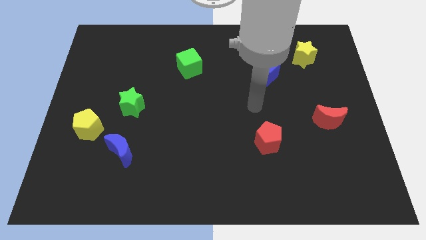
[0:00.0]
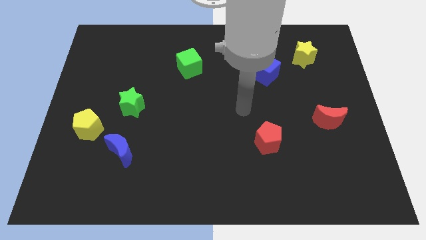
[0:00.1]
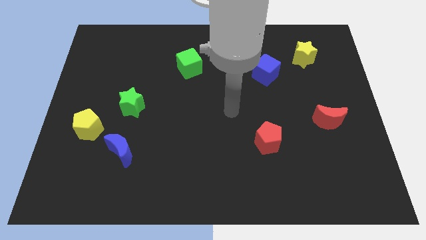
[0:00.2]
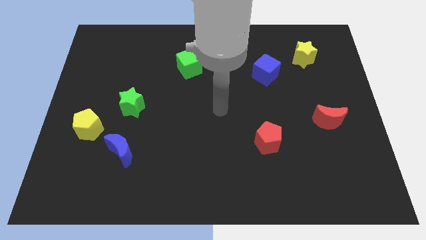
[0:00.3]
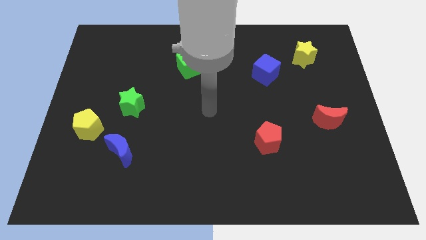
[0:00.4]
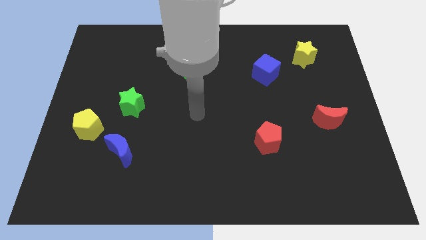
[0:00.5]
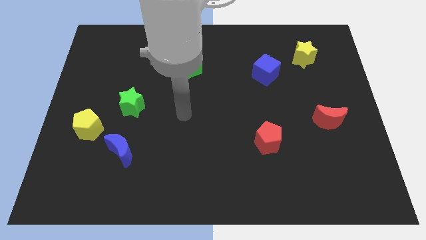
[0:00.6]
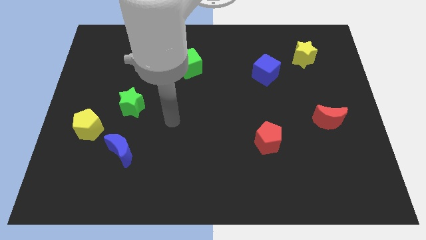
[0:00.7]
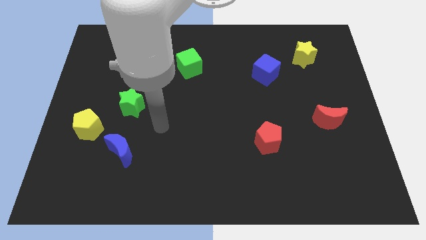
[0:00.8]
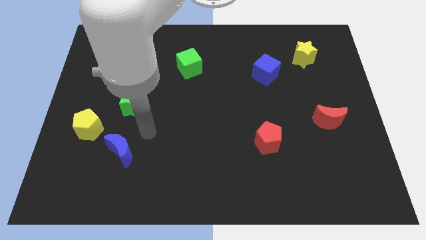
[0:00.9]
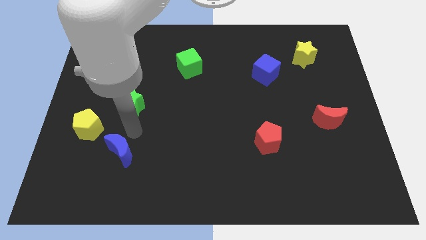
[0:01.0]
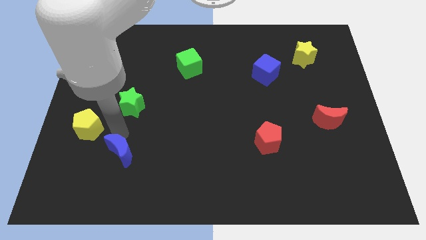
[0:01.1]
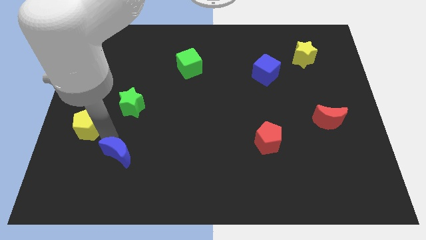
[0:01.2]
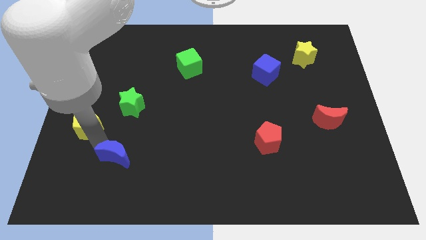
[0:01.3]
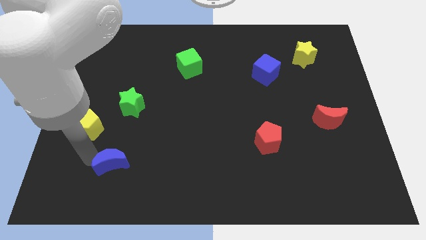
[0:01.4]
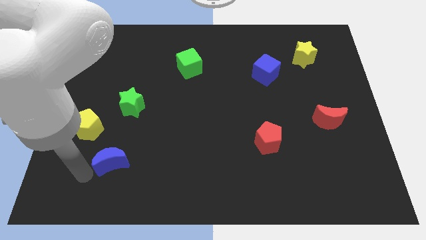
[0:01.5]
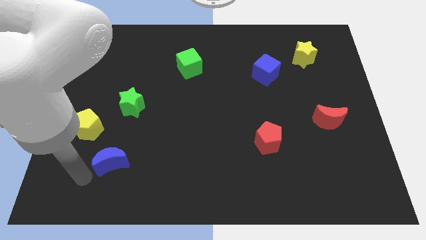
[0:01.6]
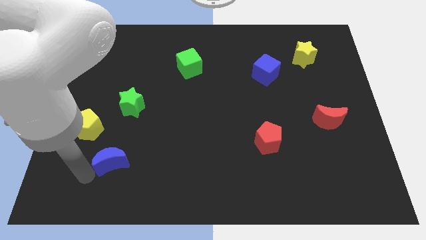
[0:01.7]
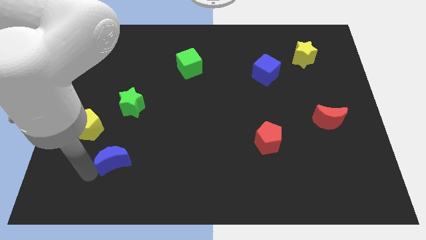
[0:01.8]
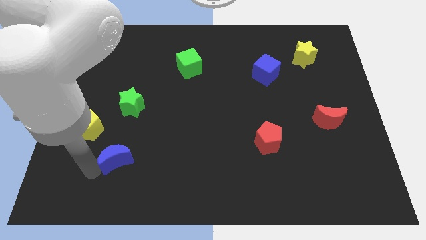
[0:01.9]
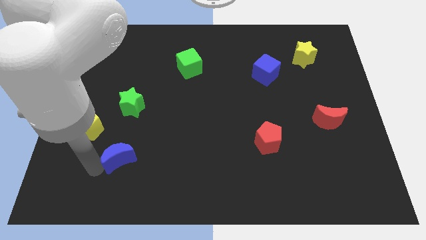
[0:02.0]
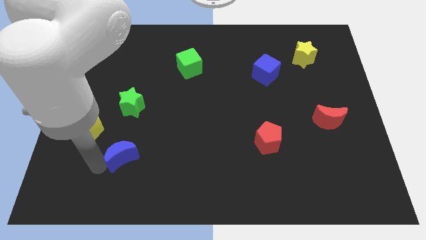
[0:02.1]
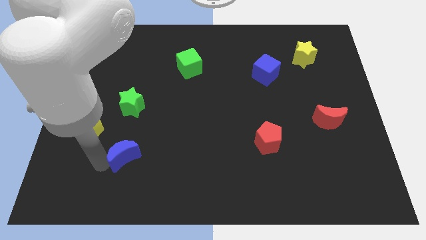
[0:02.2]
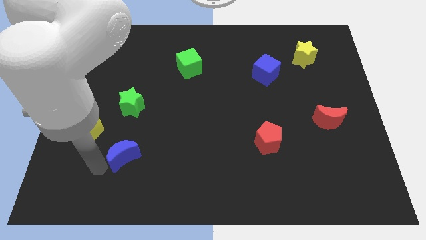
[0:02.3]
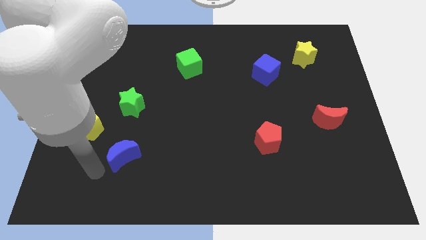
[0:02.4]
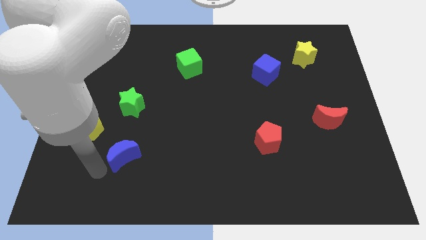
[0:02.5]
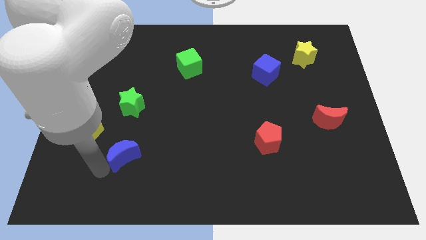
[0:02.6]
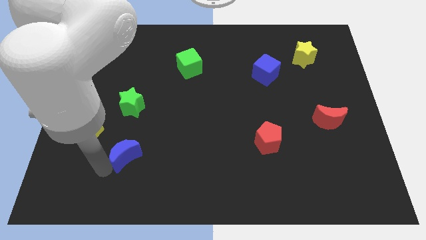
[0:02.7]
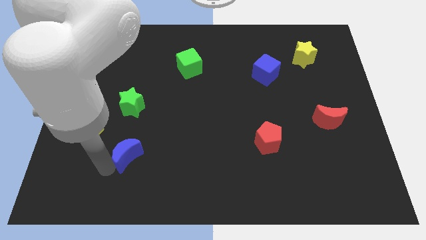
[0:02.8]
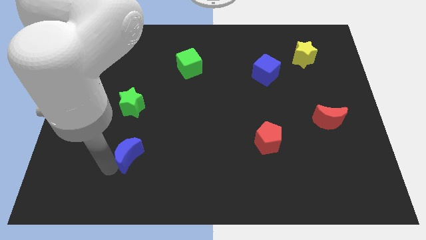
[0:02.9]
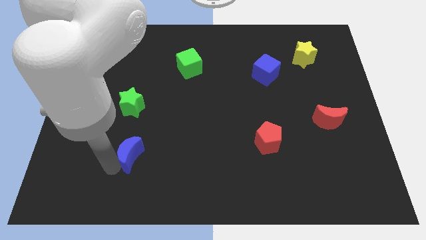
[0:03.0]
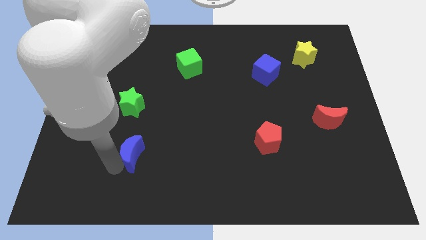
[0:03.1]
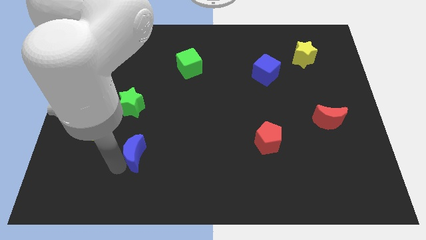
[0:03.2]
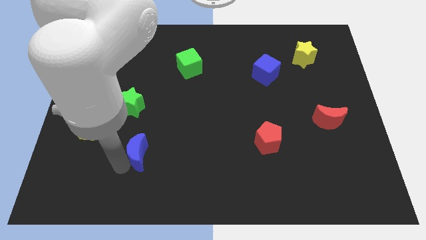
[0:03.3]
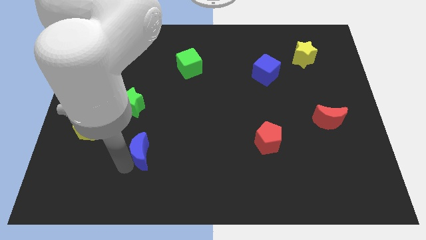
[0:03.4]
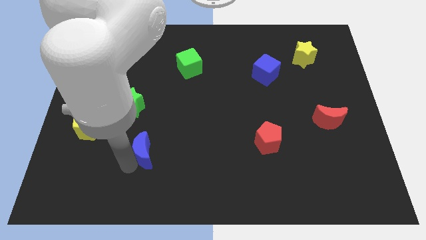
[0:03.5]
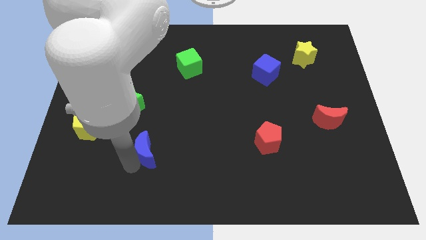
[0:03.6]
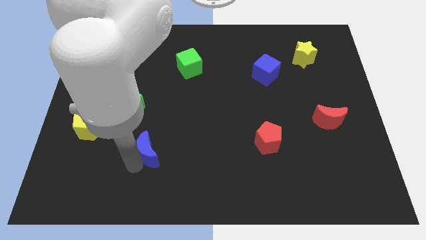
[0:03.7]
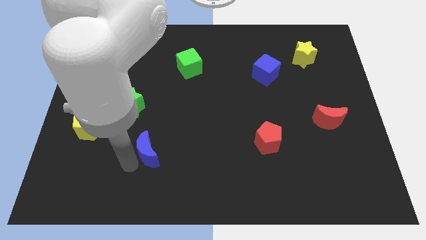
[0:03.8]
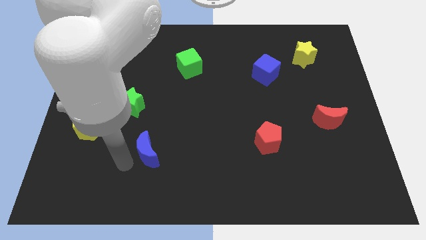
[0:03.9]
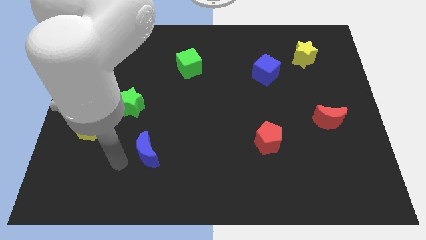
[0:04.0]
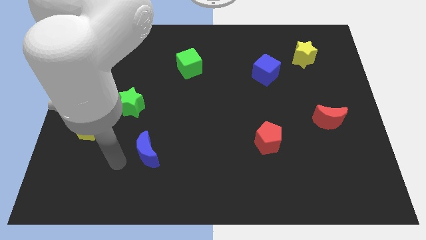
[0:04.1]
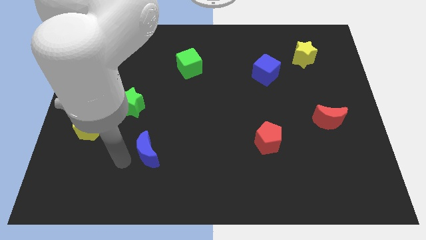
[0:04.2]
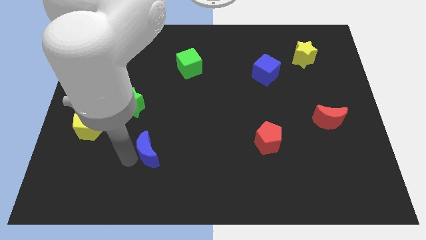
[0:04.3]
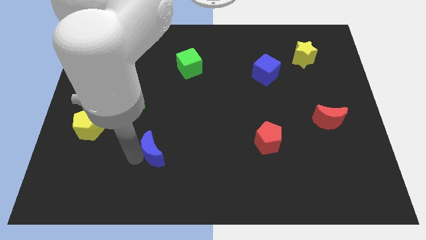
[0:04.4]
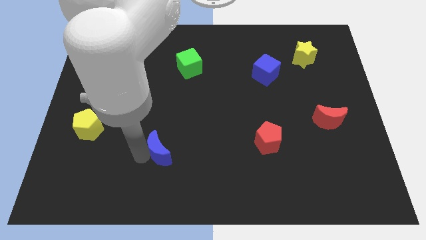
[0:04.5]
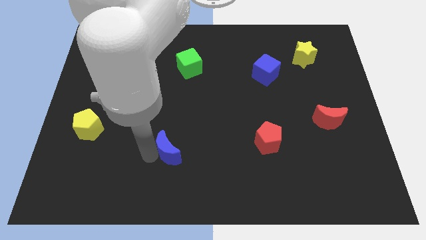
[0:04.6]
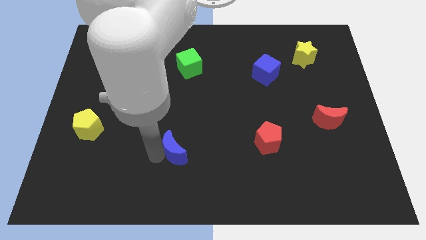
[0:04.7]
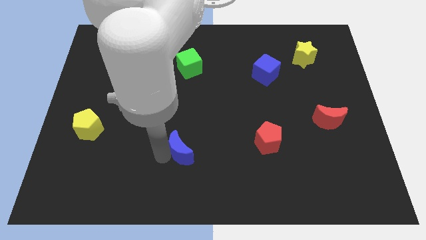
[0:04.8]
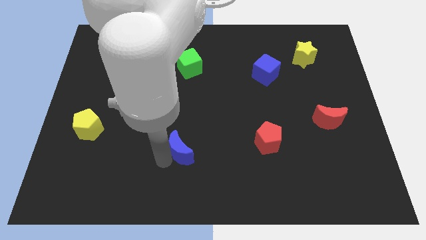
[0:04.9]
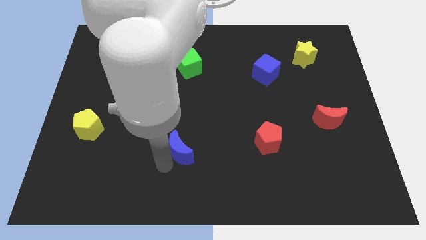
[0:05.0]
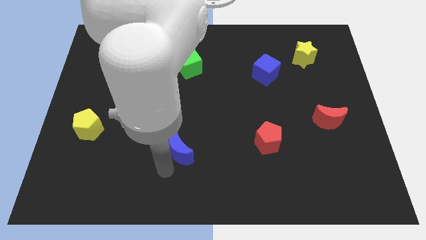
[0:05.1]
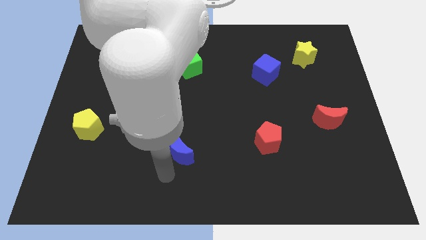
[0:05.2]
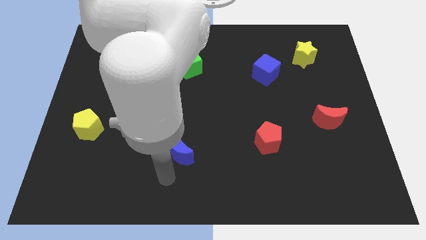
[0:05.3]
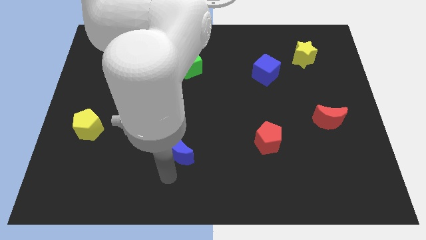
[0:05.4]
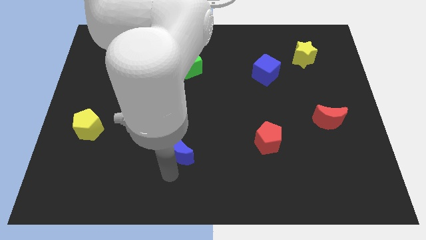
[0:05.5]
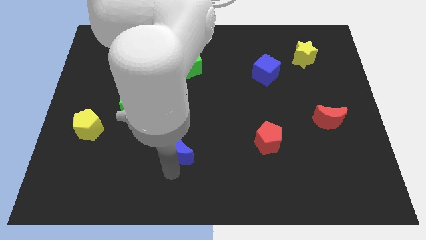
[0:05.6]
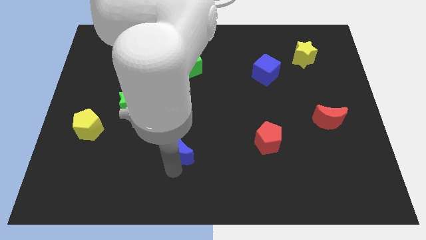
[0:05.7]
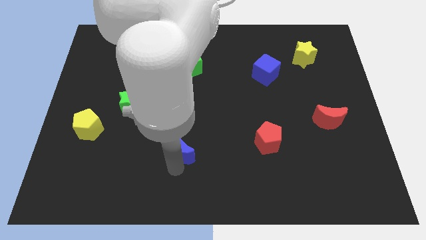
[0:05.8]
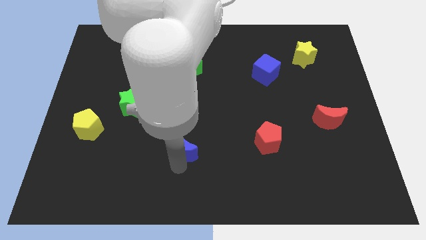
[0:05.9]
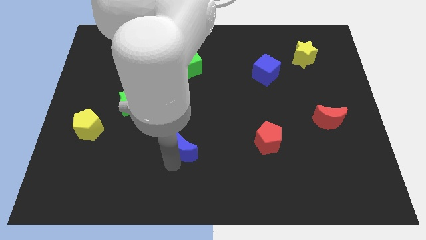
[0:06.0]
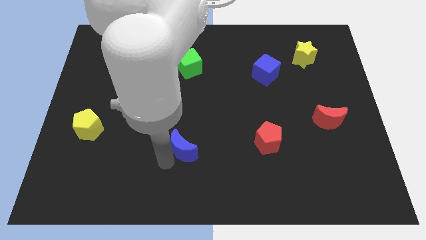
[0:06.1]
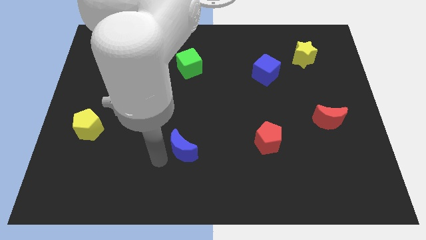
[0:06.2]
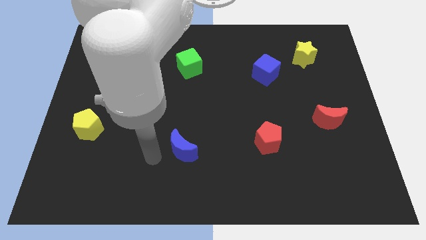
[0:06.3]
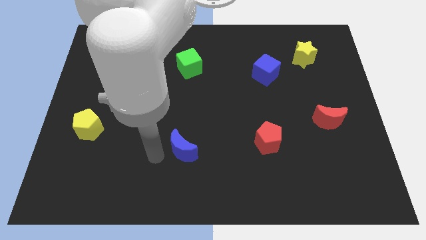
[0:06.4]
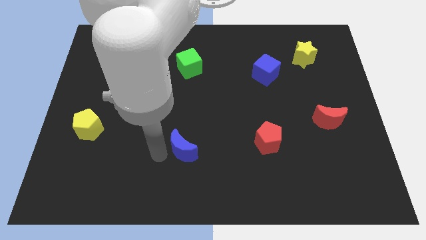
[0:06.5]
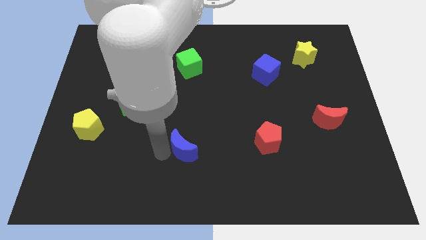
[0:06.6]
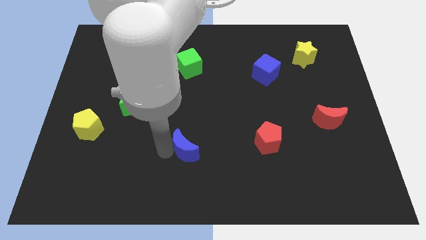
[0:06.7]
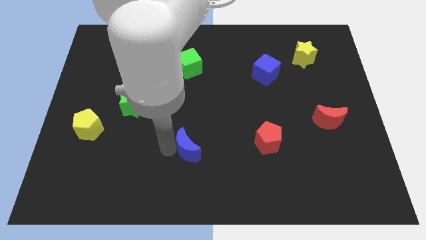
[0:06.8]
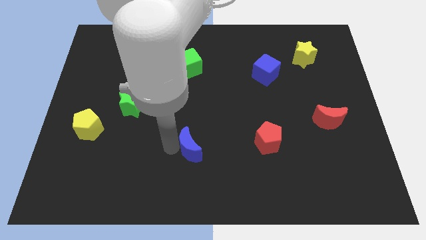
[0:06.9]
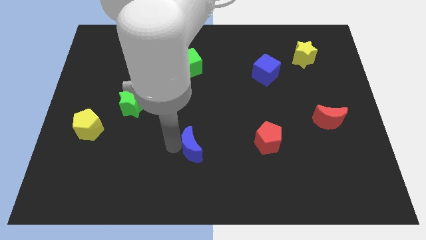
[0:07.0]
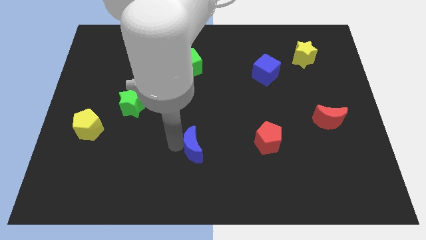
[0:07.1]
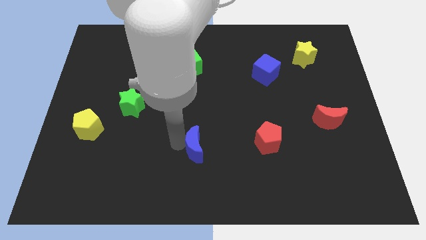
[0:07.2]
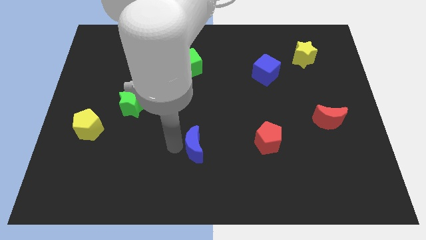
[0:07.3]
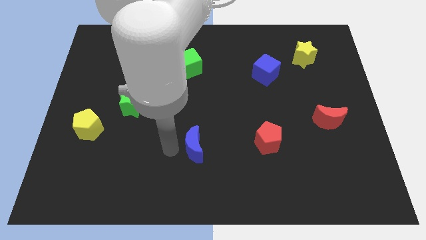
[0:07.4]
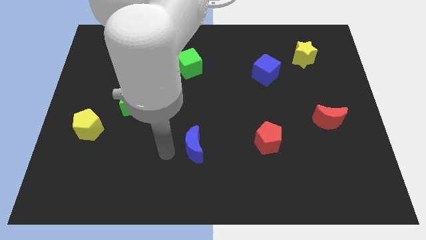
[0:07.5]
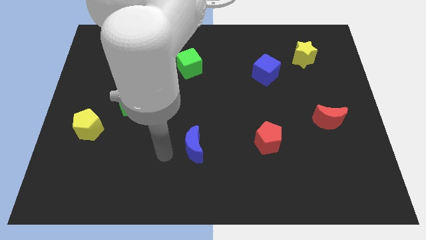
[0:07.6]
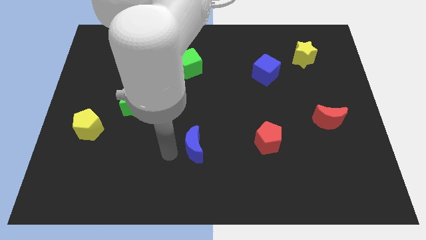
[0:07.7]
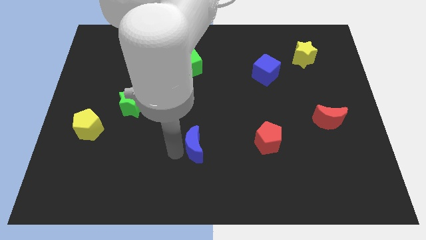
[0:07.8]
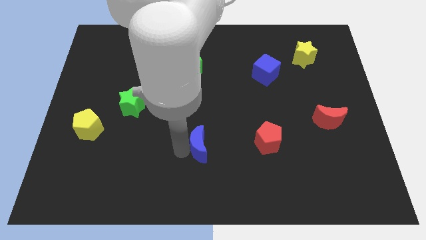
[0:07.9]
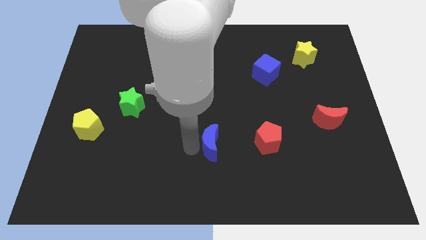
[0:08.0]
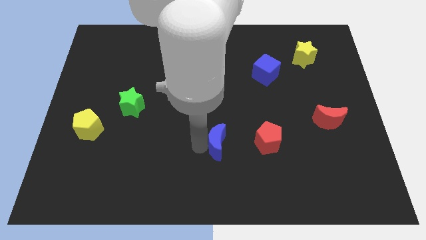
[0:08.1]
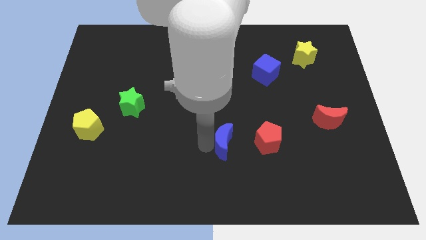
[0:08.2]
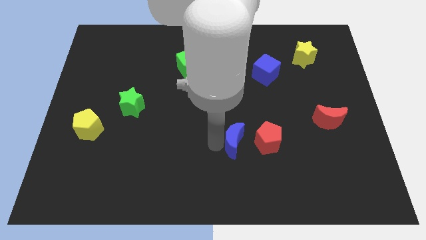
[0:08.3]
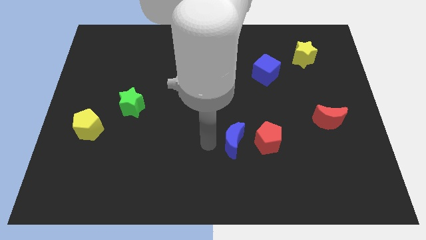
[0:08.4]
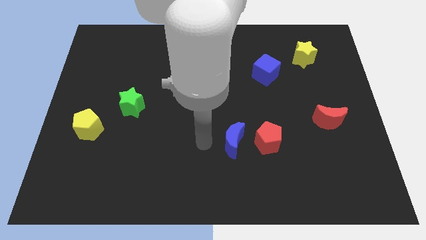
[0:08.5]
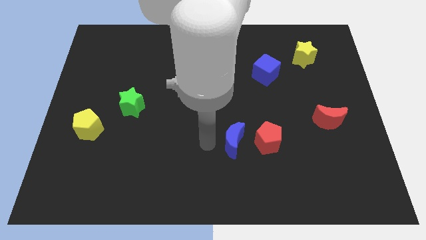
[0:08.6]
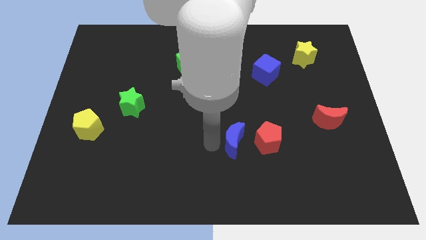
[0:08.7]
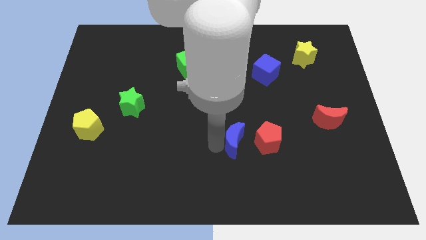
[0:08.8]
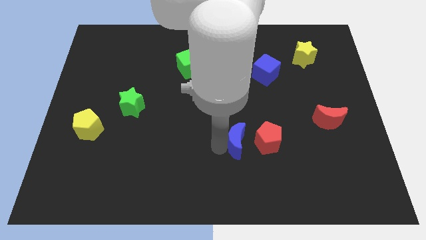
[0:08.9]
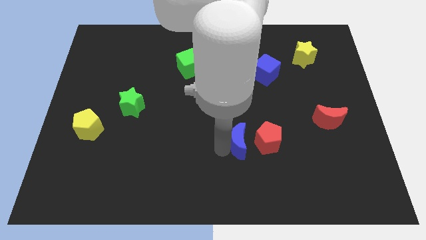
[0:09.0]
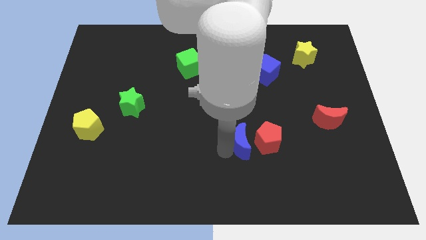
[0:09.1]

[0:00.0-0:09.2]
slide the blue moon next to the red pentagon
